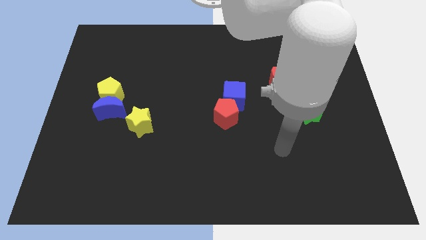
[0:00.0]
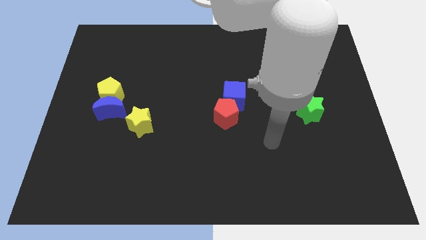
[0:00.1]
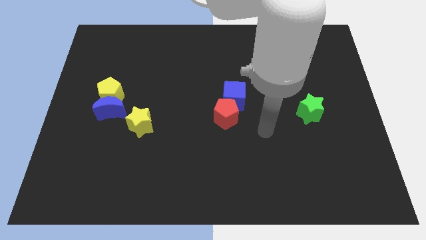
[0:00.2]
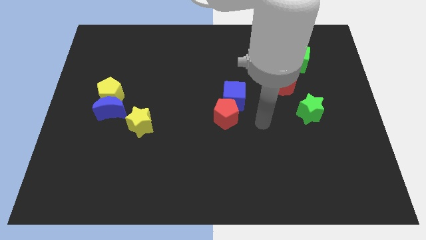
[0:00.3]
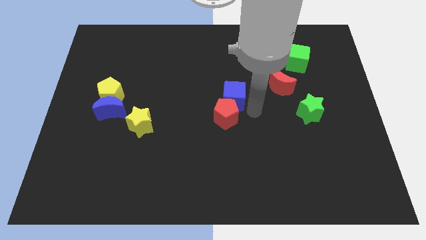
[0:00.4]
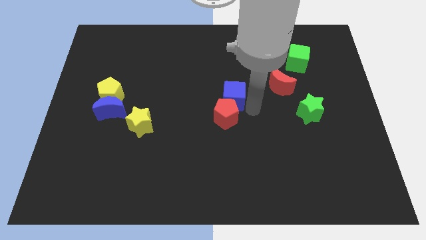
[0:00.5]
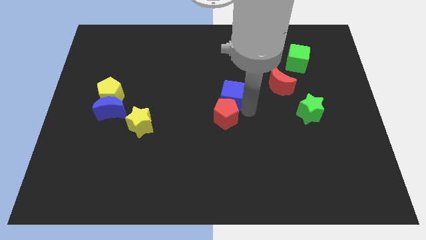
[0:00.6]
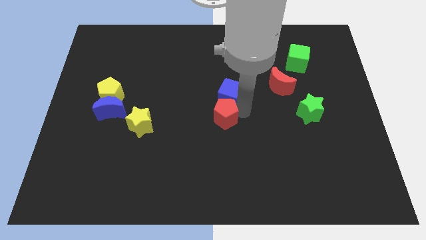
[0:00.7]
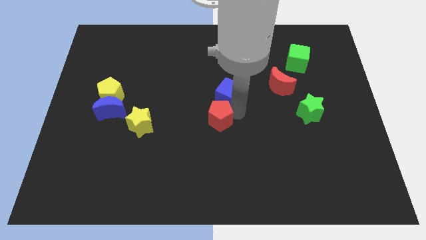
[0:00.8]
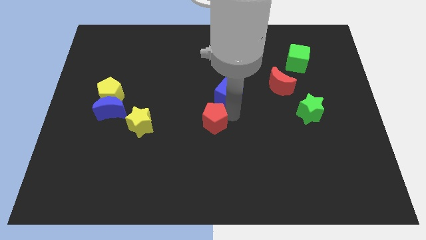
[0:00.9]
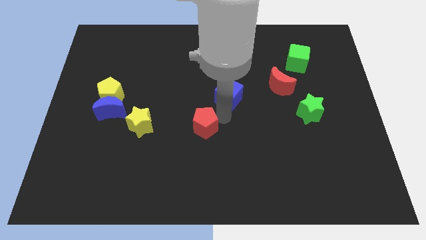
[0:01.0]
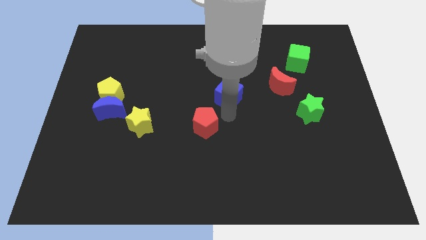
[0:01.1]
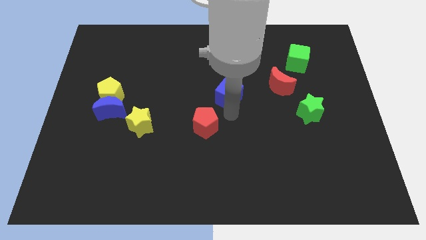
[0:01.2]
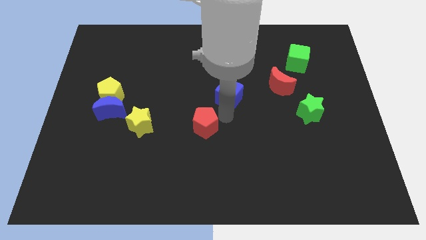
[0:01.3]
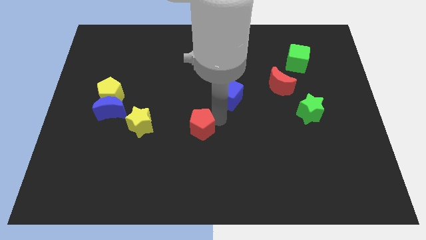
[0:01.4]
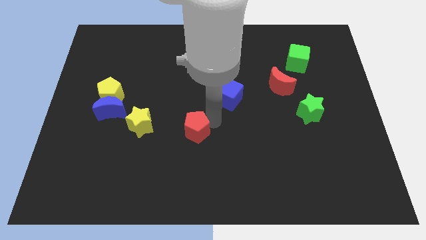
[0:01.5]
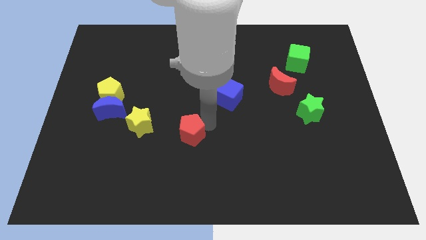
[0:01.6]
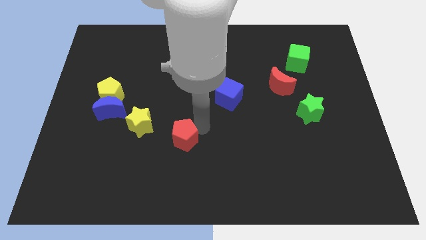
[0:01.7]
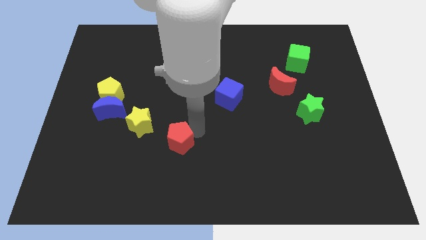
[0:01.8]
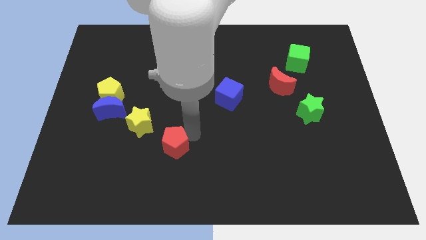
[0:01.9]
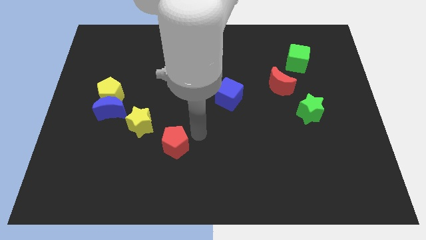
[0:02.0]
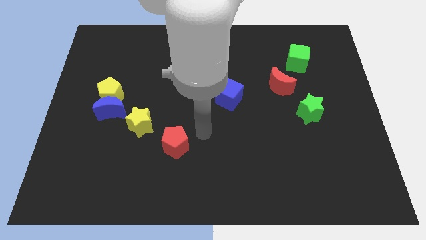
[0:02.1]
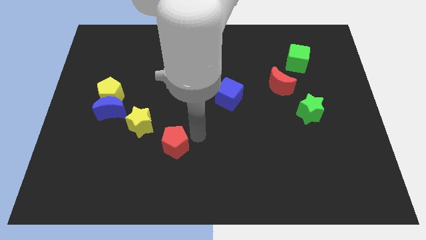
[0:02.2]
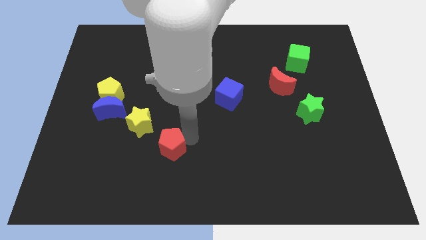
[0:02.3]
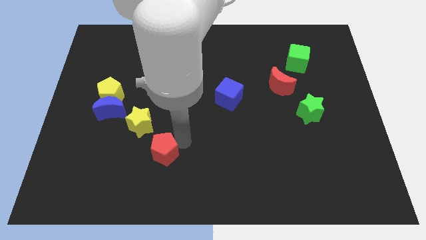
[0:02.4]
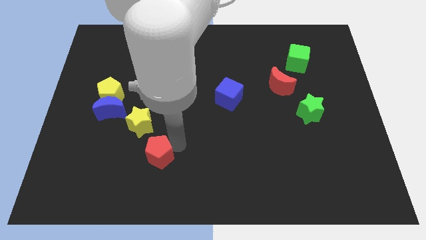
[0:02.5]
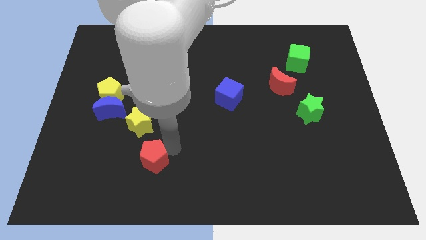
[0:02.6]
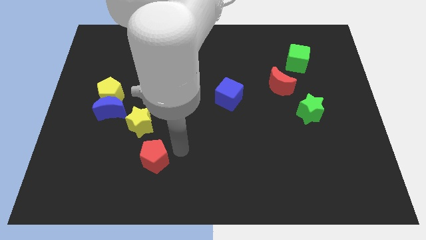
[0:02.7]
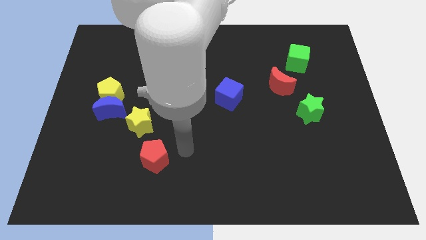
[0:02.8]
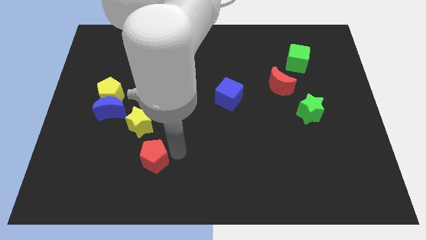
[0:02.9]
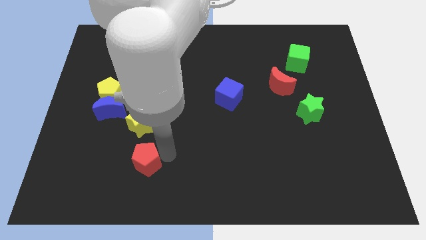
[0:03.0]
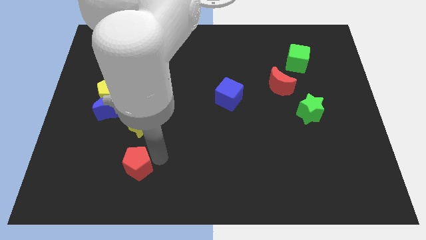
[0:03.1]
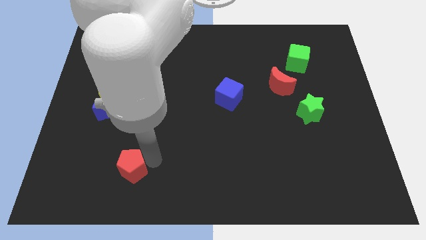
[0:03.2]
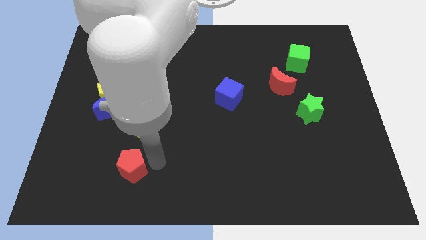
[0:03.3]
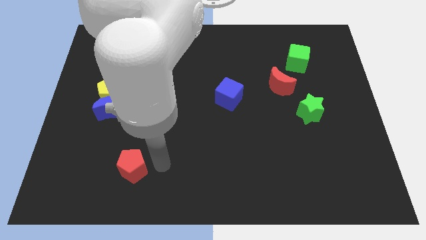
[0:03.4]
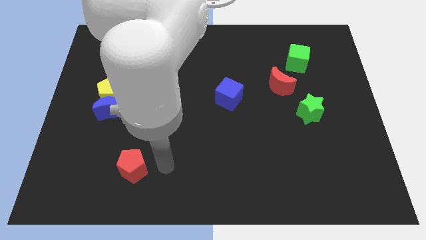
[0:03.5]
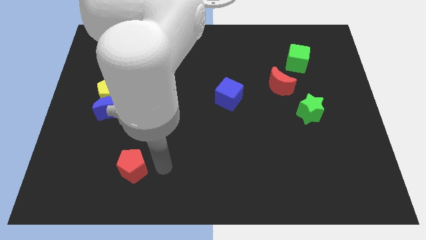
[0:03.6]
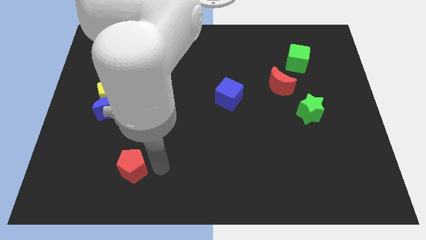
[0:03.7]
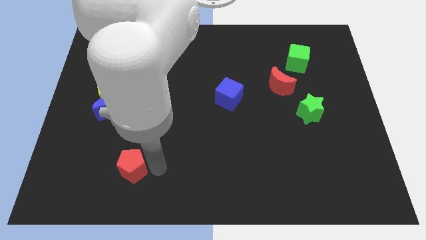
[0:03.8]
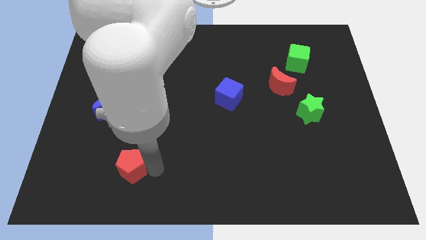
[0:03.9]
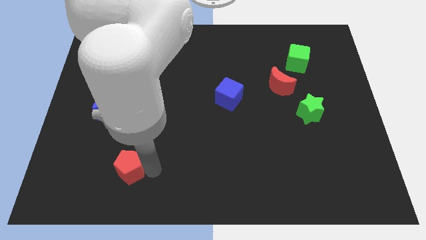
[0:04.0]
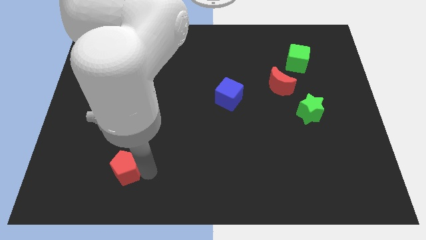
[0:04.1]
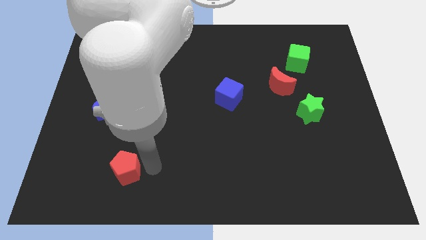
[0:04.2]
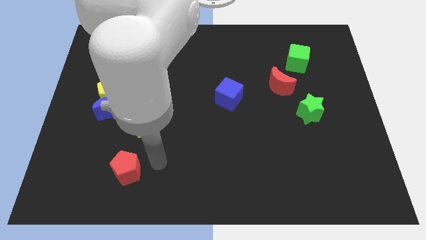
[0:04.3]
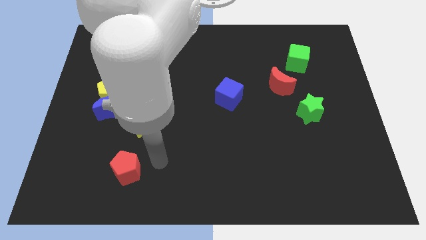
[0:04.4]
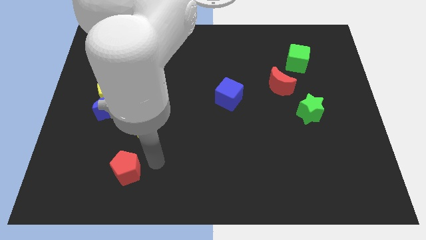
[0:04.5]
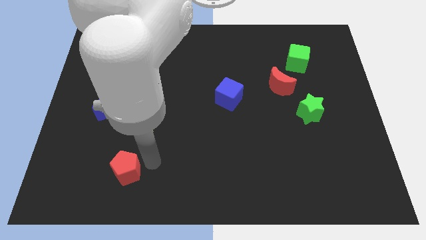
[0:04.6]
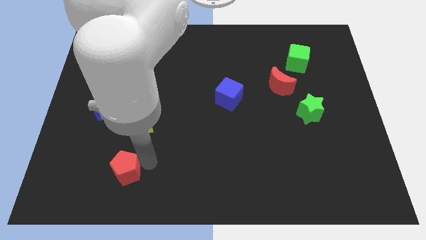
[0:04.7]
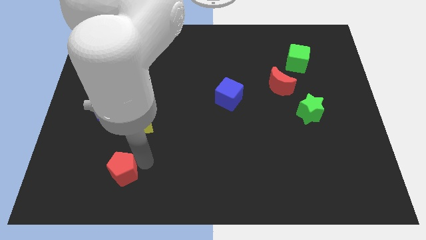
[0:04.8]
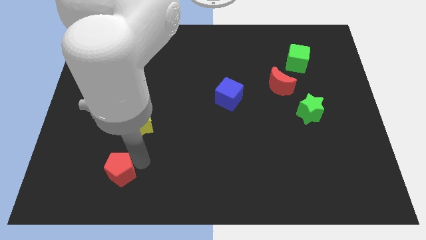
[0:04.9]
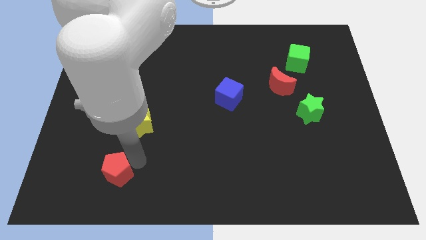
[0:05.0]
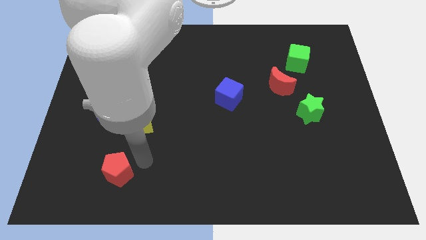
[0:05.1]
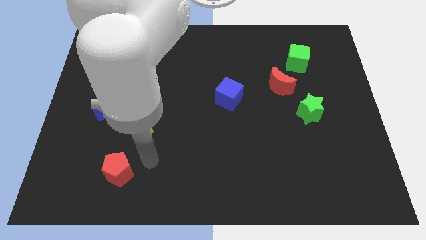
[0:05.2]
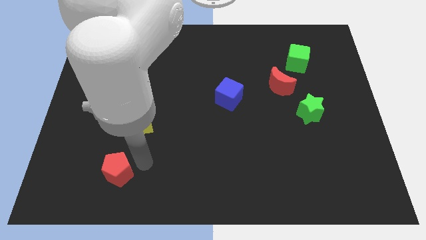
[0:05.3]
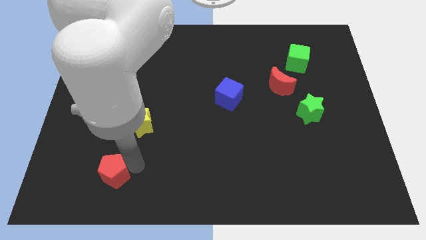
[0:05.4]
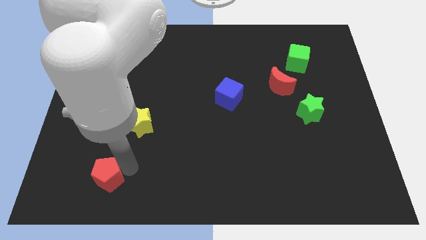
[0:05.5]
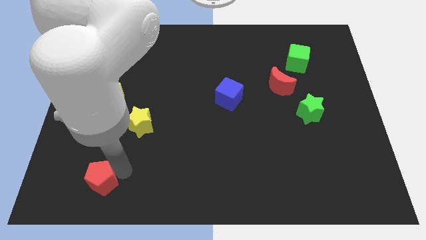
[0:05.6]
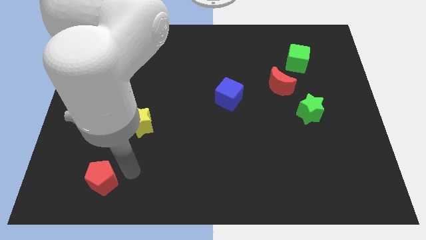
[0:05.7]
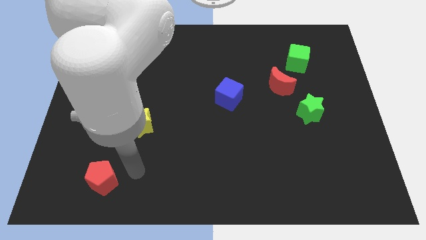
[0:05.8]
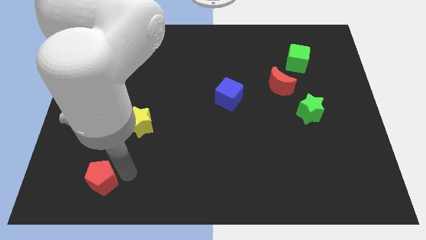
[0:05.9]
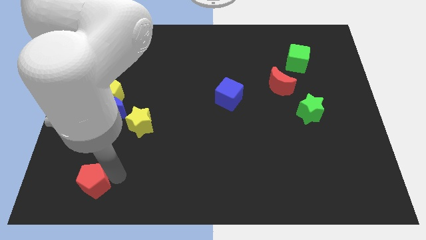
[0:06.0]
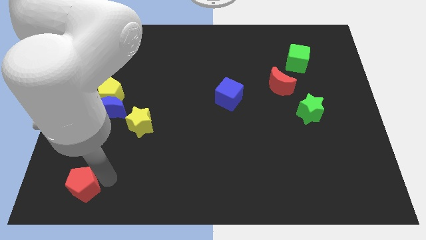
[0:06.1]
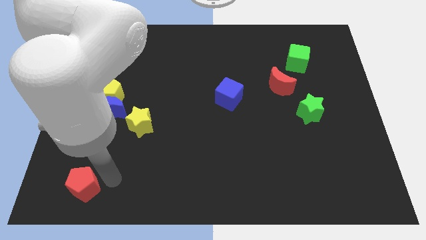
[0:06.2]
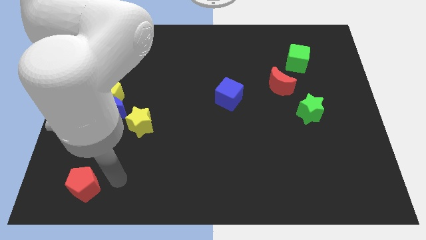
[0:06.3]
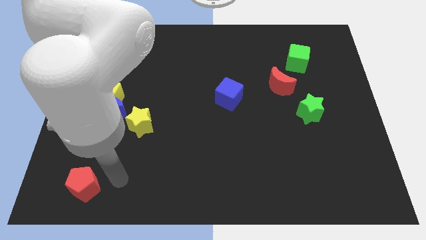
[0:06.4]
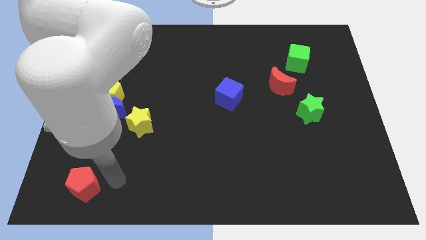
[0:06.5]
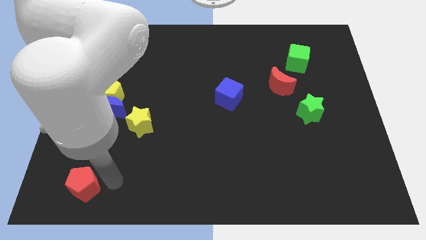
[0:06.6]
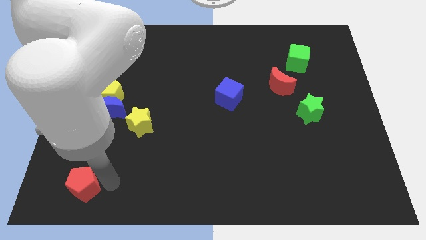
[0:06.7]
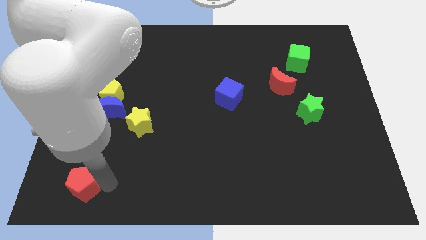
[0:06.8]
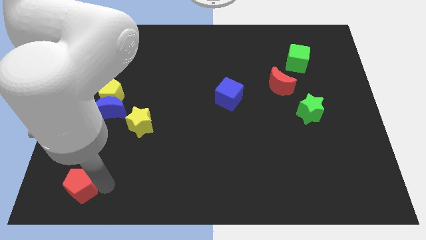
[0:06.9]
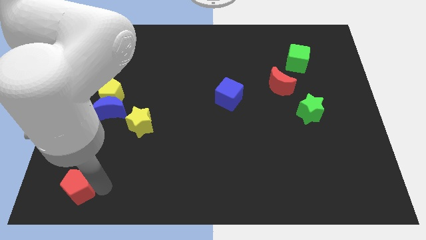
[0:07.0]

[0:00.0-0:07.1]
push the red pentagon to the lower left corner

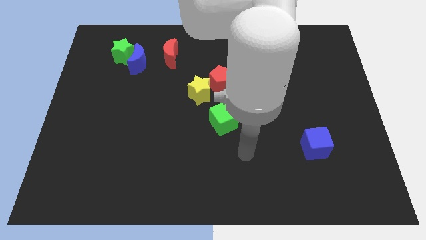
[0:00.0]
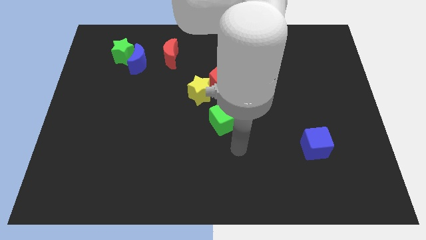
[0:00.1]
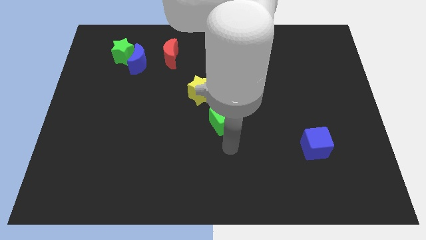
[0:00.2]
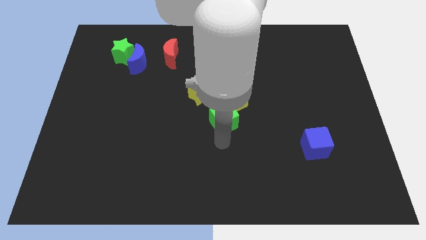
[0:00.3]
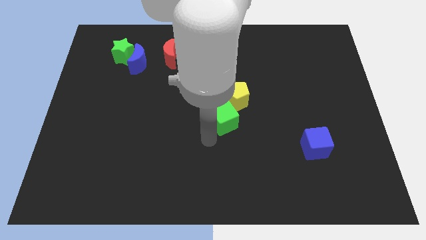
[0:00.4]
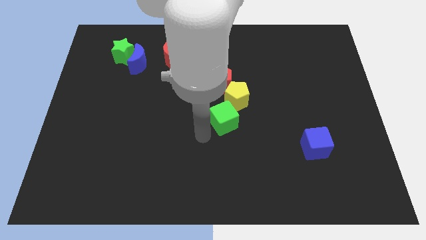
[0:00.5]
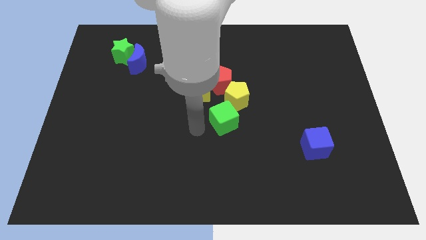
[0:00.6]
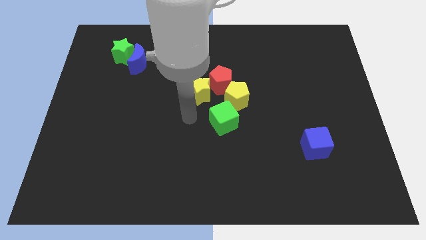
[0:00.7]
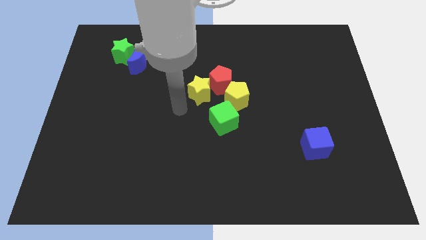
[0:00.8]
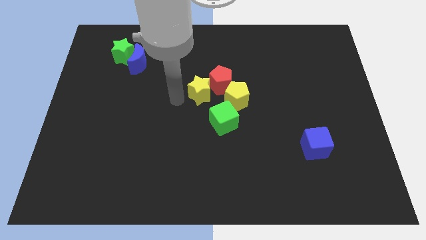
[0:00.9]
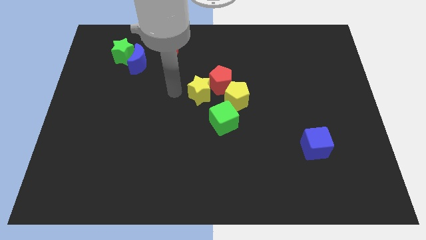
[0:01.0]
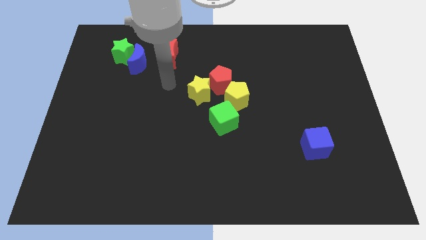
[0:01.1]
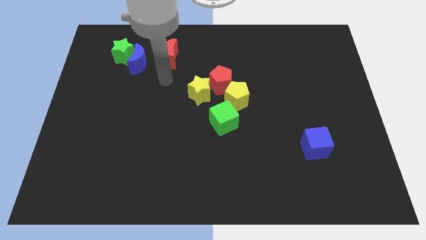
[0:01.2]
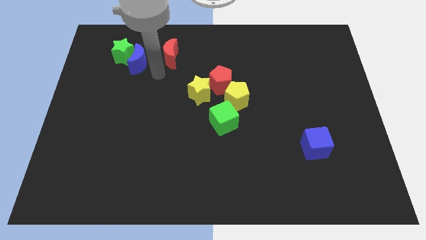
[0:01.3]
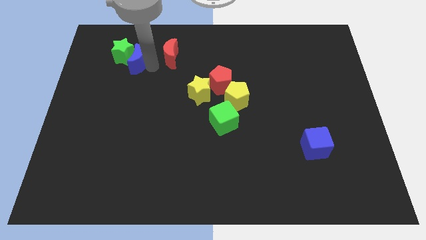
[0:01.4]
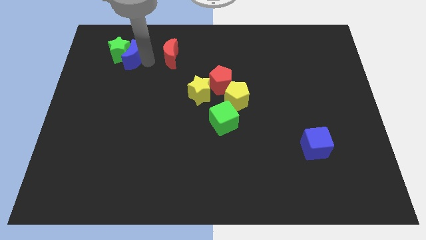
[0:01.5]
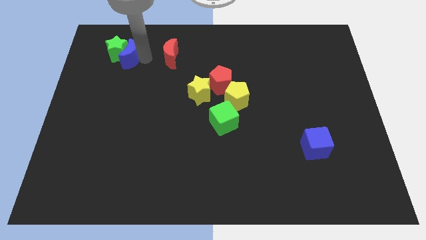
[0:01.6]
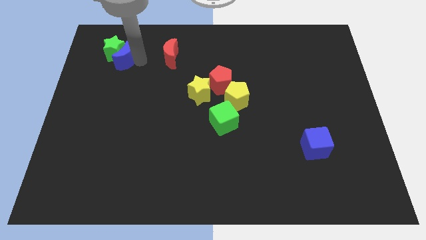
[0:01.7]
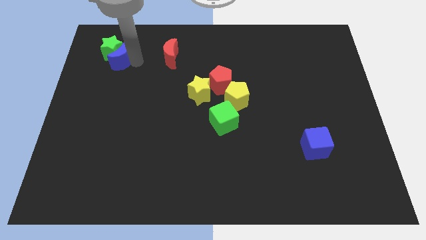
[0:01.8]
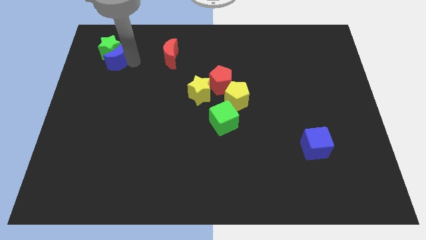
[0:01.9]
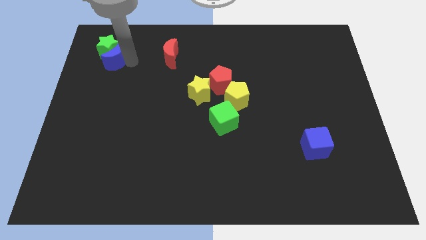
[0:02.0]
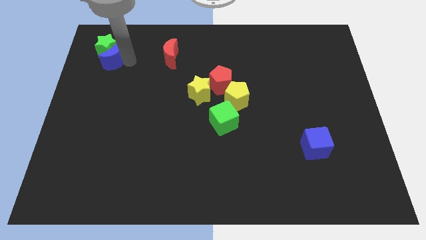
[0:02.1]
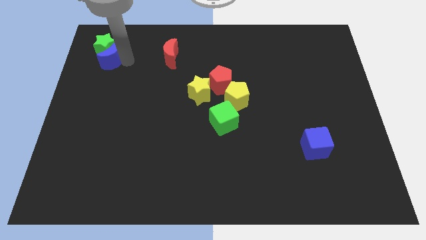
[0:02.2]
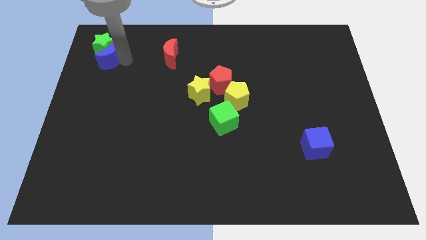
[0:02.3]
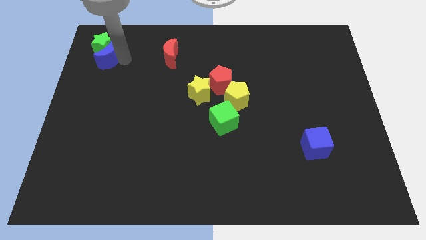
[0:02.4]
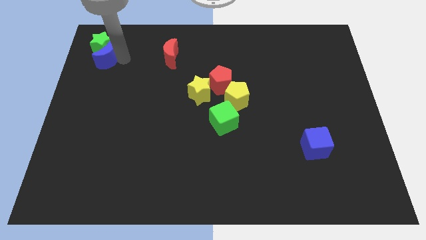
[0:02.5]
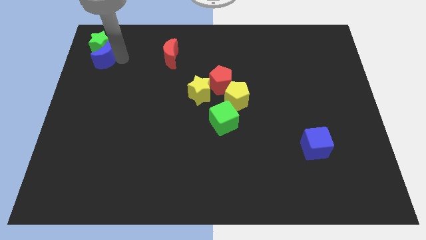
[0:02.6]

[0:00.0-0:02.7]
put the green star to the upper left corner
